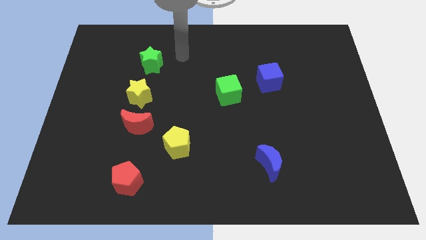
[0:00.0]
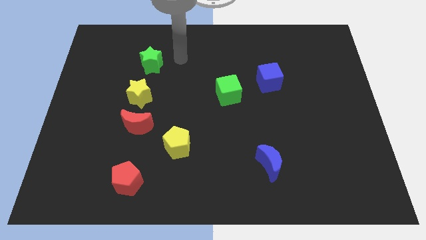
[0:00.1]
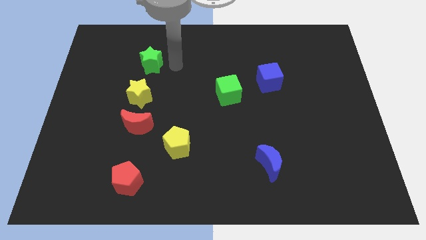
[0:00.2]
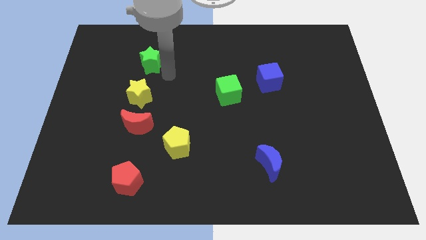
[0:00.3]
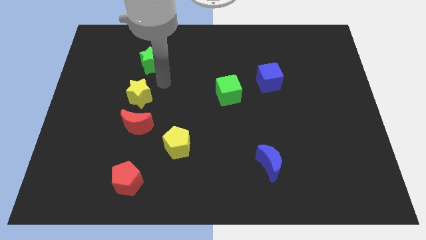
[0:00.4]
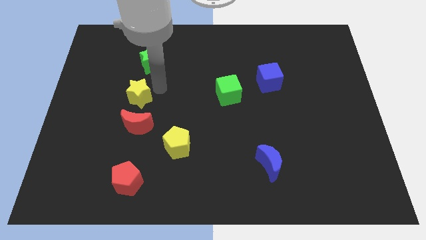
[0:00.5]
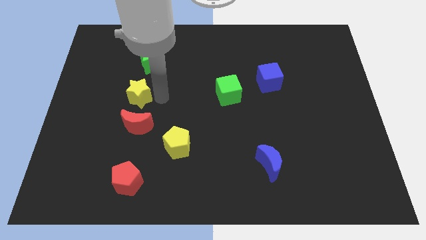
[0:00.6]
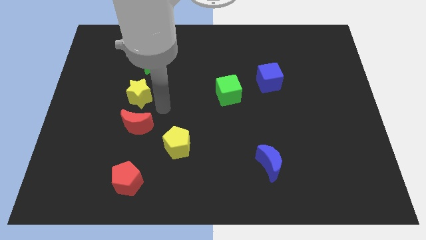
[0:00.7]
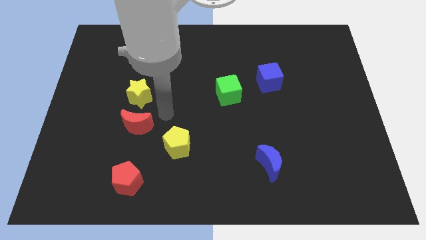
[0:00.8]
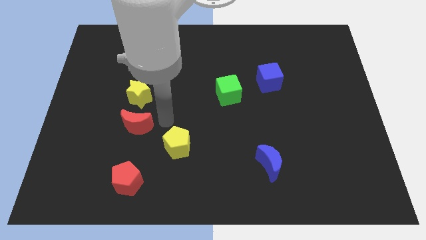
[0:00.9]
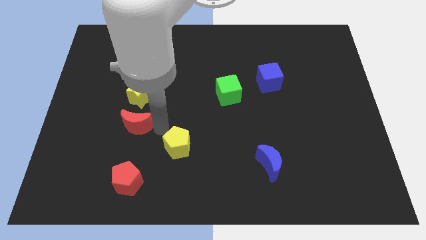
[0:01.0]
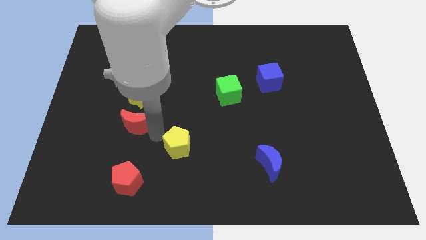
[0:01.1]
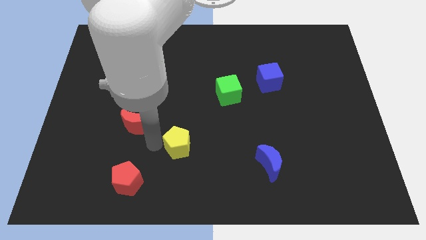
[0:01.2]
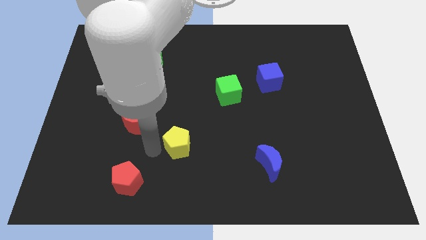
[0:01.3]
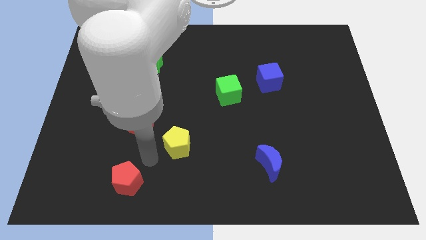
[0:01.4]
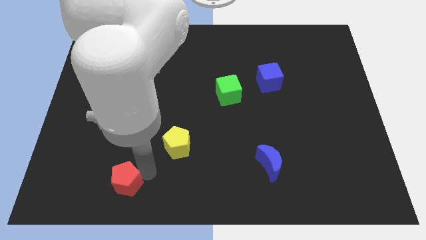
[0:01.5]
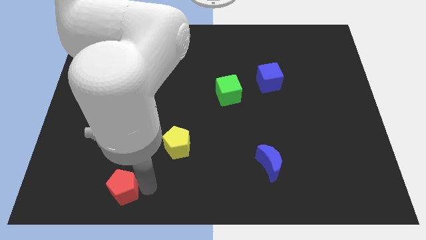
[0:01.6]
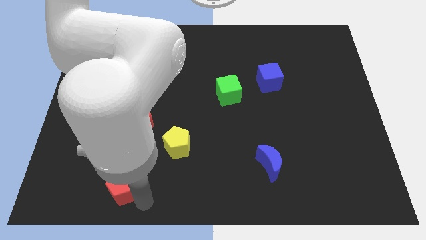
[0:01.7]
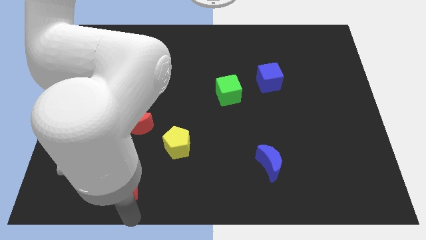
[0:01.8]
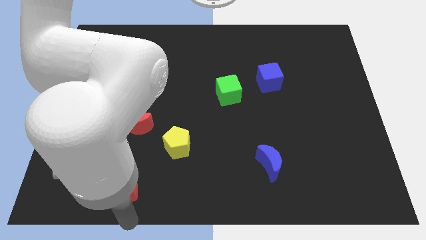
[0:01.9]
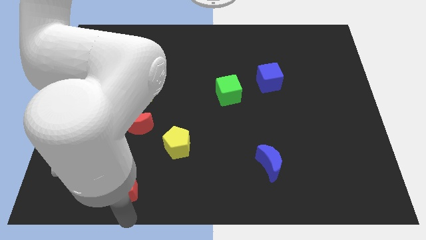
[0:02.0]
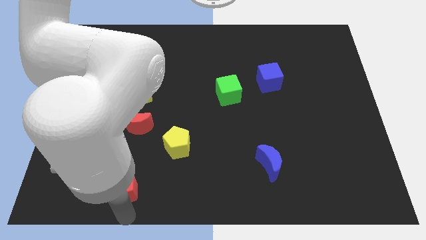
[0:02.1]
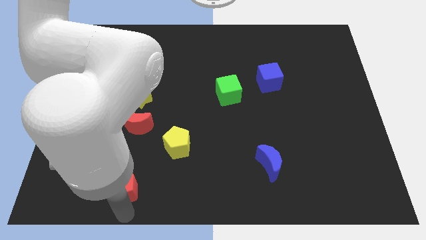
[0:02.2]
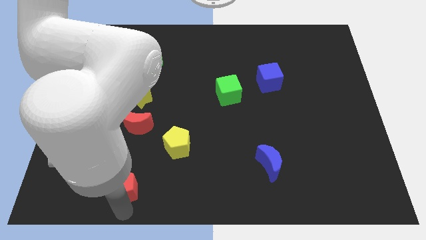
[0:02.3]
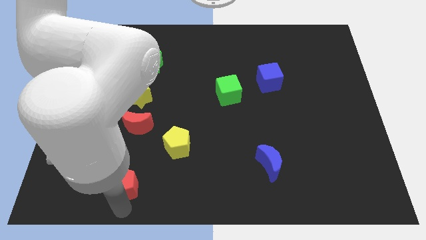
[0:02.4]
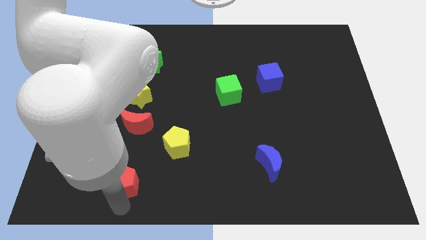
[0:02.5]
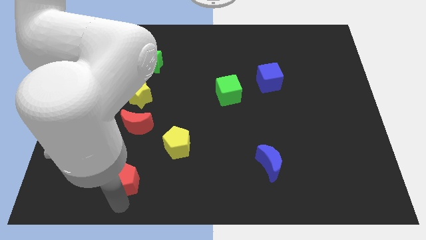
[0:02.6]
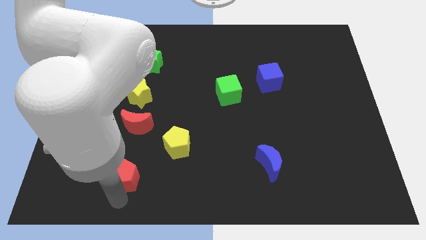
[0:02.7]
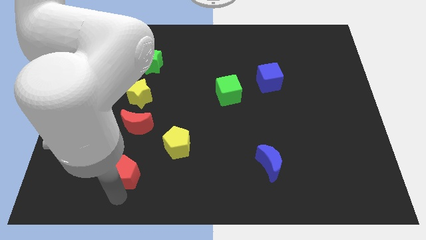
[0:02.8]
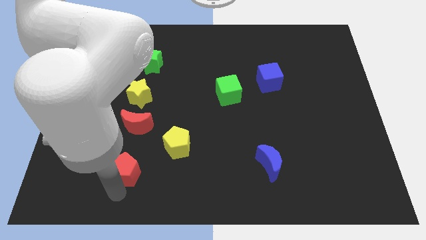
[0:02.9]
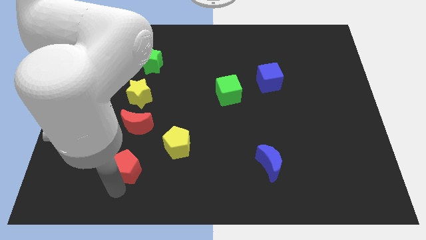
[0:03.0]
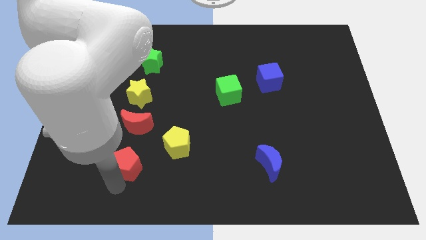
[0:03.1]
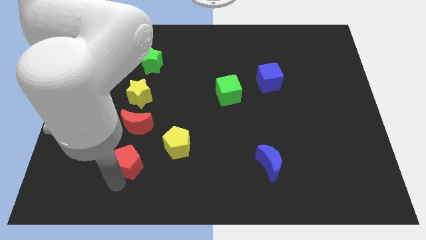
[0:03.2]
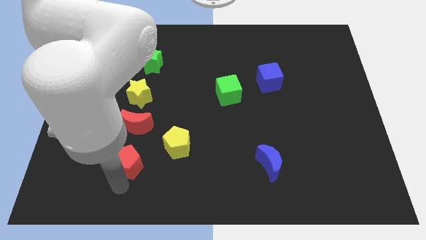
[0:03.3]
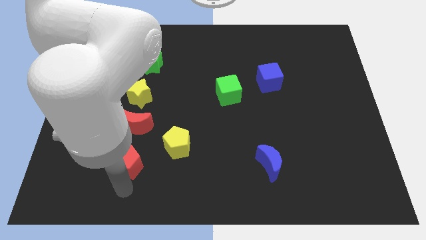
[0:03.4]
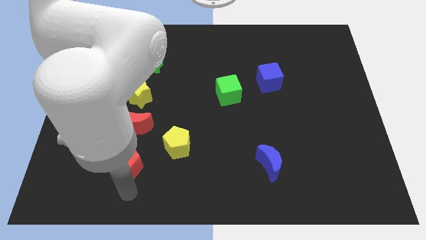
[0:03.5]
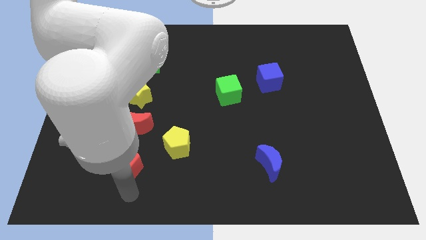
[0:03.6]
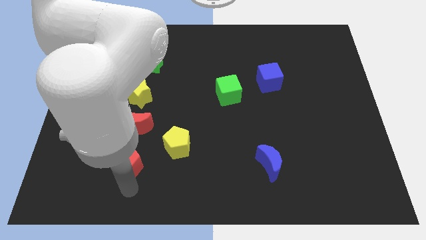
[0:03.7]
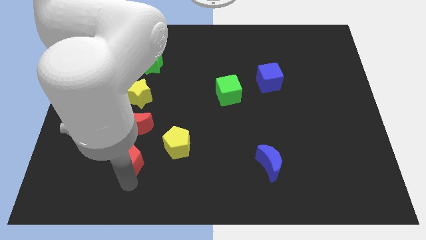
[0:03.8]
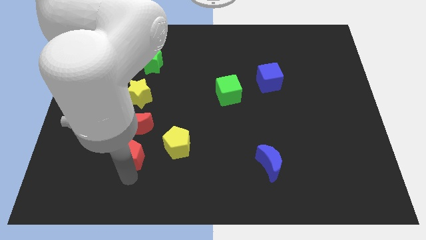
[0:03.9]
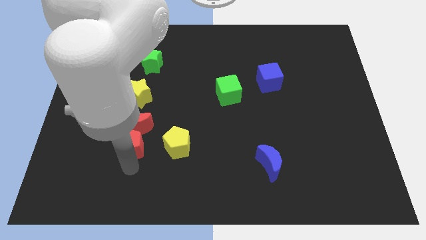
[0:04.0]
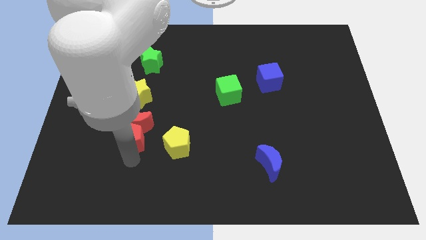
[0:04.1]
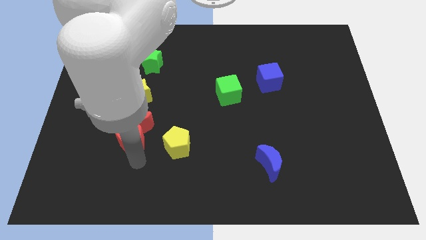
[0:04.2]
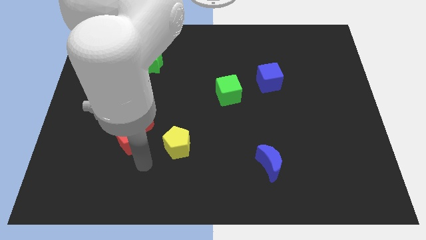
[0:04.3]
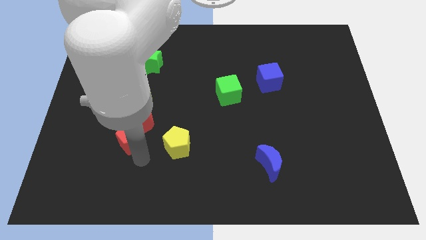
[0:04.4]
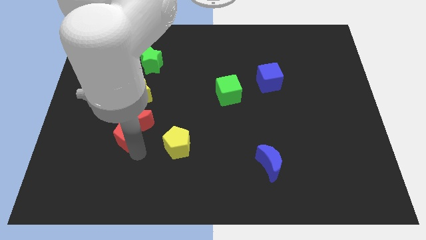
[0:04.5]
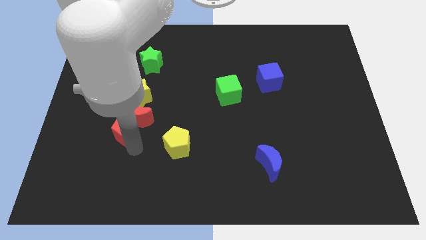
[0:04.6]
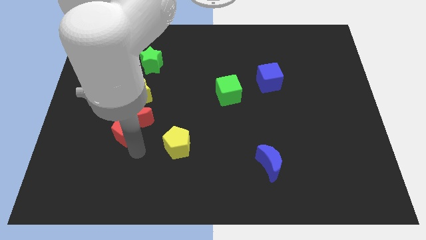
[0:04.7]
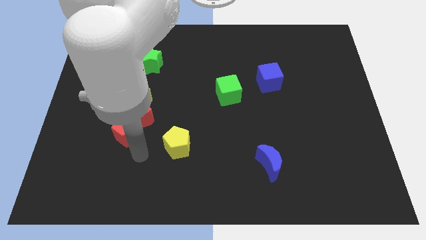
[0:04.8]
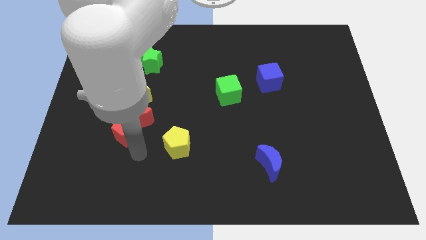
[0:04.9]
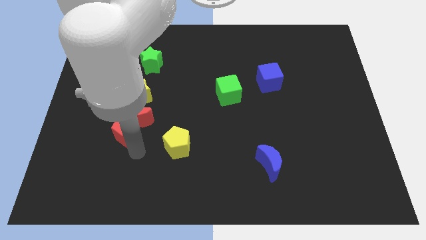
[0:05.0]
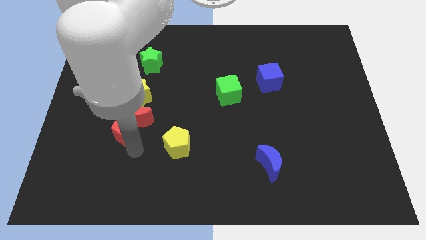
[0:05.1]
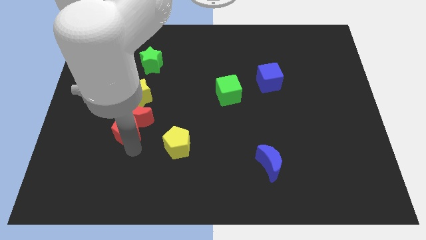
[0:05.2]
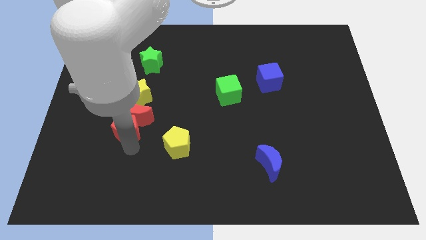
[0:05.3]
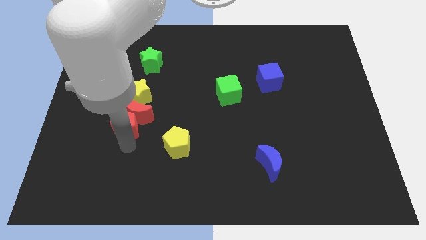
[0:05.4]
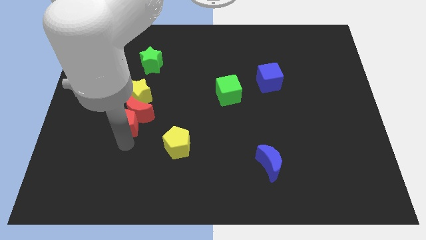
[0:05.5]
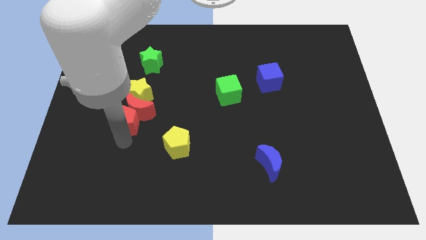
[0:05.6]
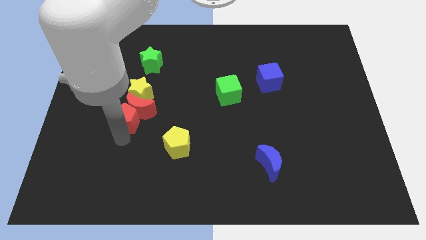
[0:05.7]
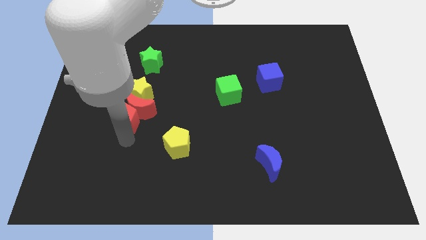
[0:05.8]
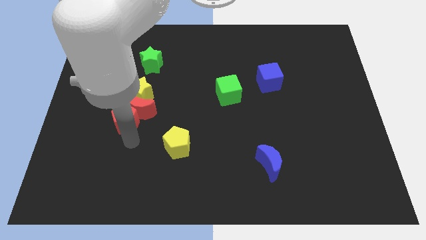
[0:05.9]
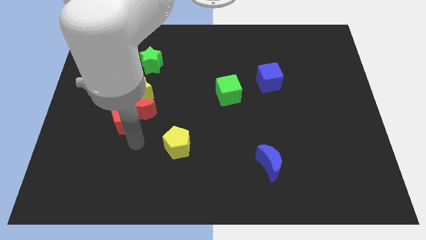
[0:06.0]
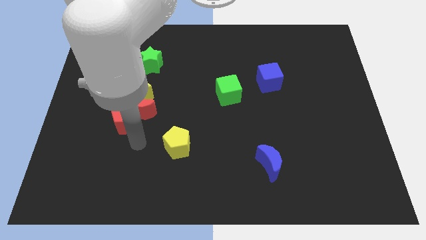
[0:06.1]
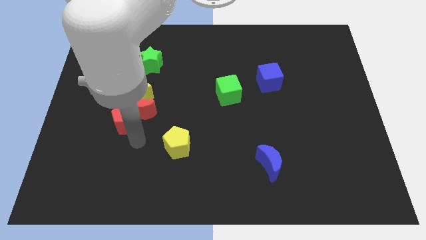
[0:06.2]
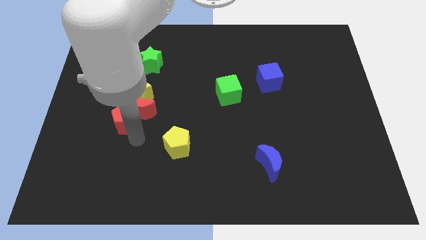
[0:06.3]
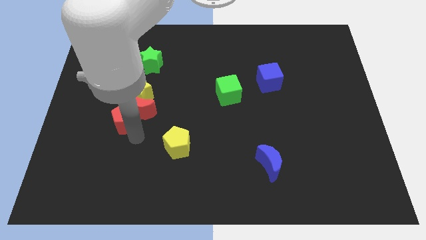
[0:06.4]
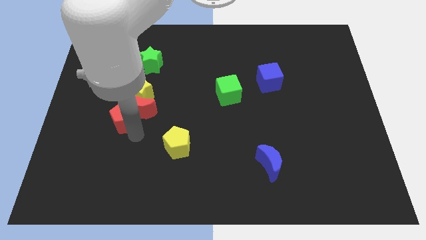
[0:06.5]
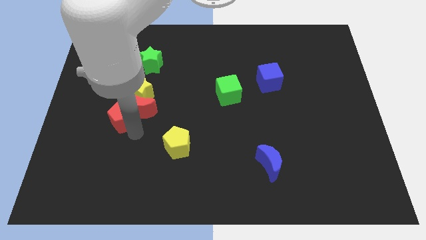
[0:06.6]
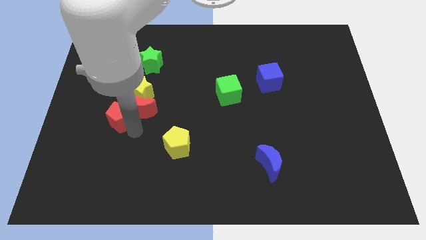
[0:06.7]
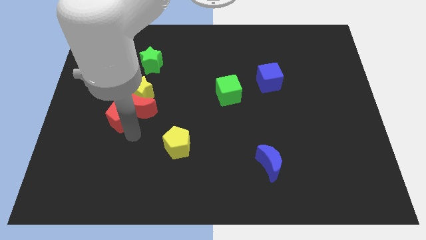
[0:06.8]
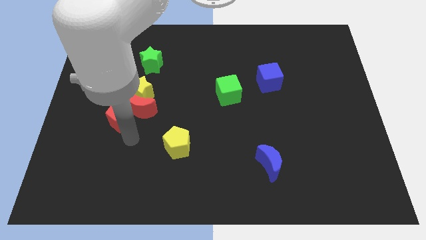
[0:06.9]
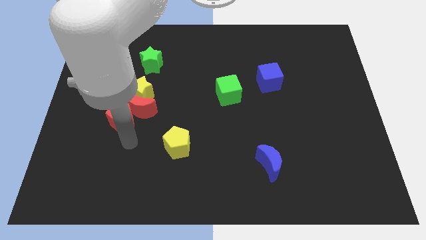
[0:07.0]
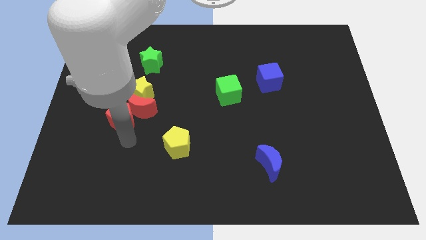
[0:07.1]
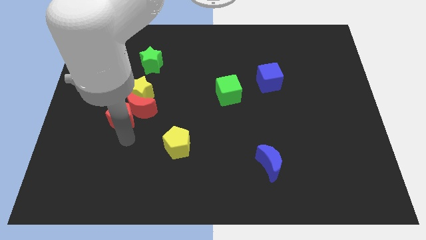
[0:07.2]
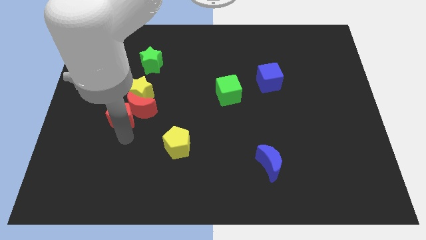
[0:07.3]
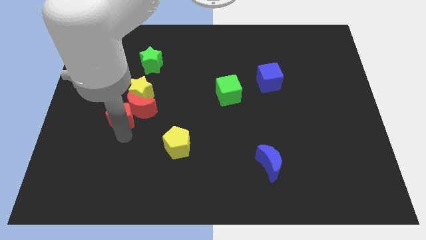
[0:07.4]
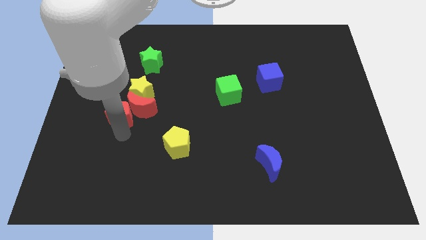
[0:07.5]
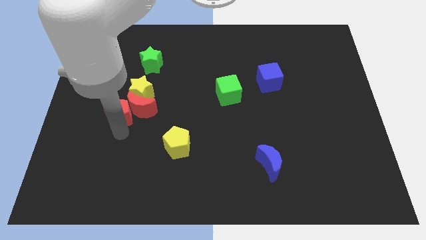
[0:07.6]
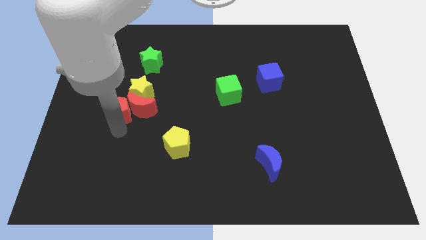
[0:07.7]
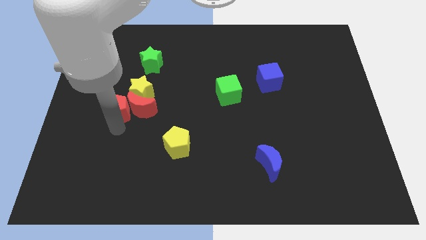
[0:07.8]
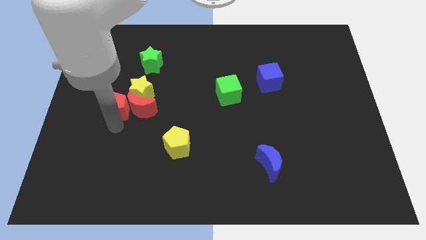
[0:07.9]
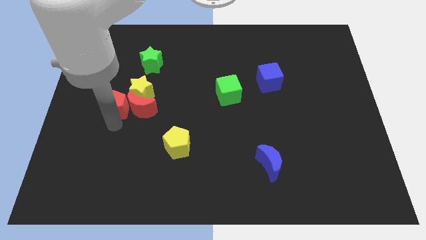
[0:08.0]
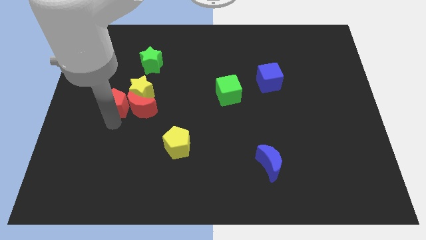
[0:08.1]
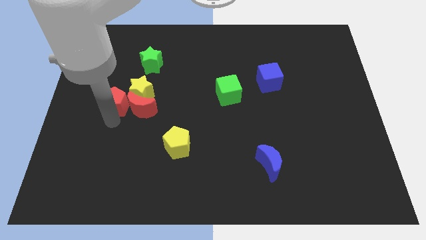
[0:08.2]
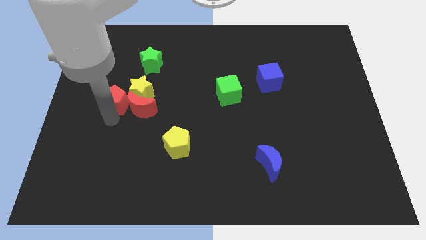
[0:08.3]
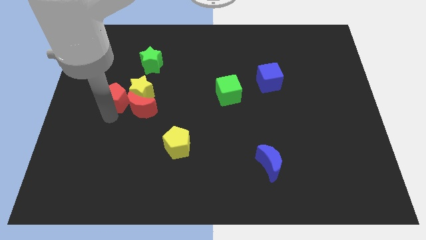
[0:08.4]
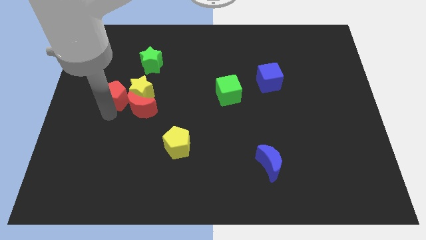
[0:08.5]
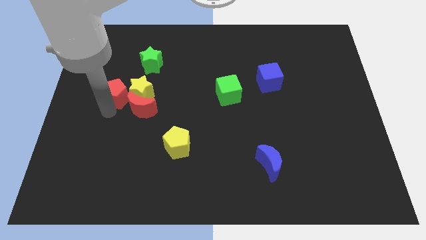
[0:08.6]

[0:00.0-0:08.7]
move the red pentagon diagonally up and to the left of the yellow star
